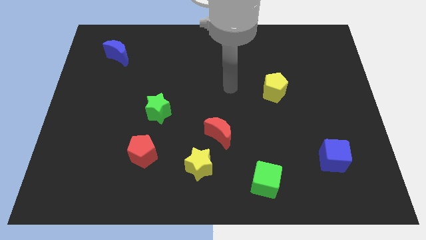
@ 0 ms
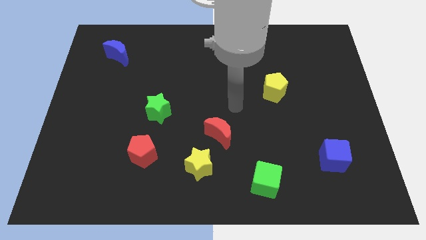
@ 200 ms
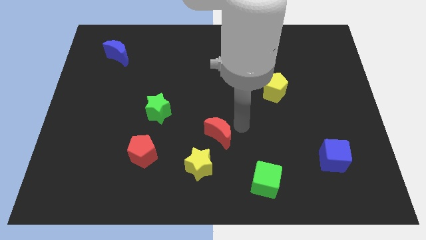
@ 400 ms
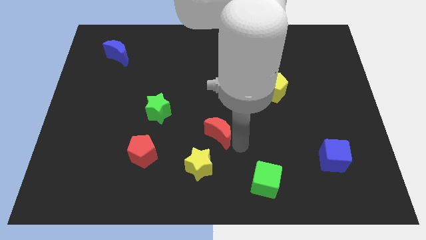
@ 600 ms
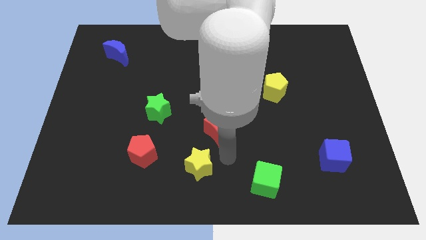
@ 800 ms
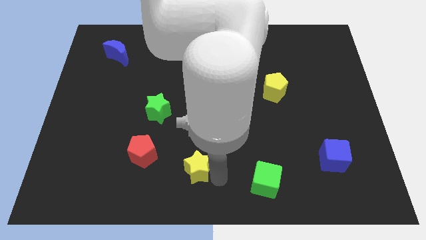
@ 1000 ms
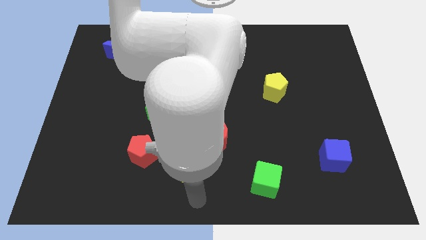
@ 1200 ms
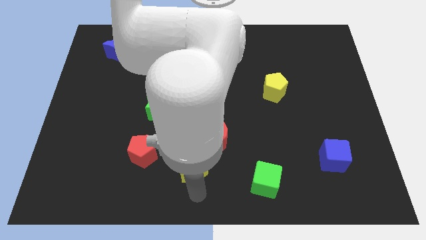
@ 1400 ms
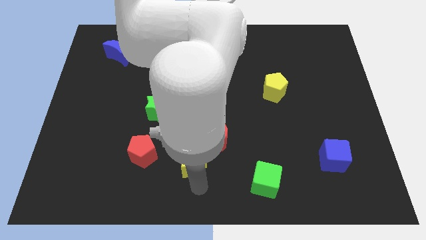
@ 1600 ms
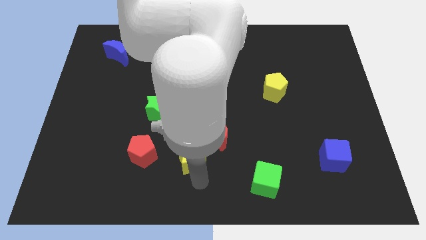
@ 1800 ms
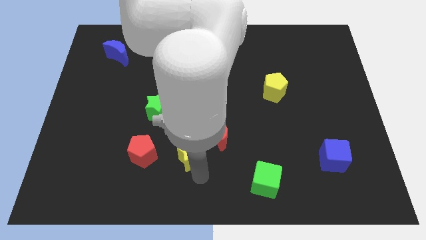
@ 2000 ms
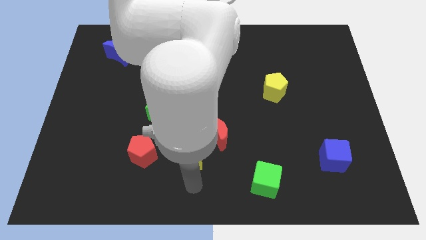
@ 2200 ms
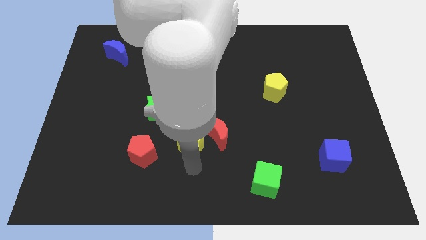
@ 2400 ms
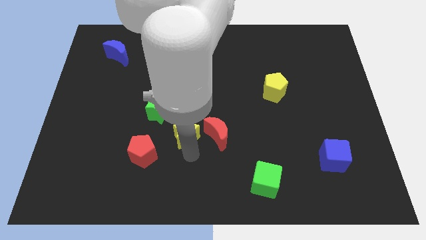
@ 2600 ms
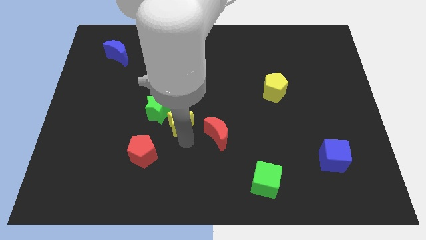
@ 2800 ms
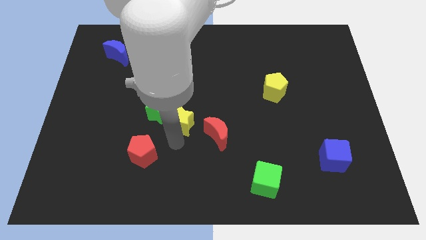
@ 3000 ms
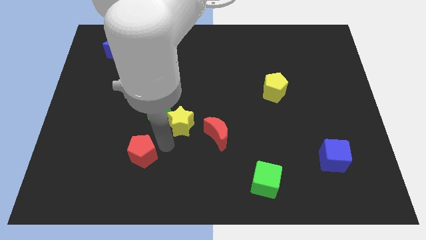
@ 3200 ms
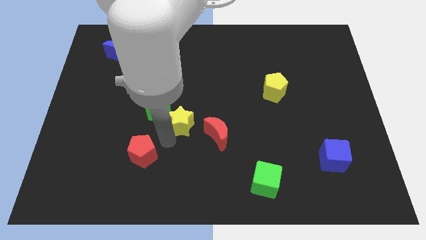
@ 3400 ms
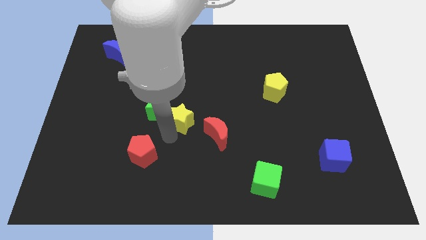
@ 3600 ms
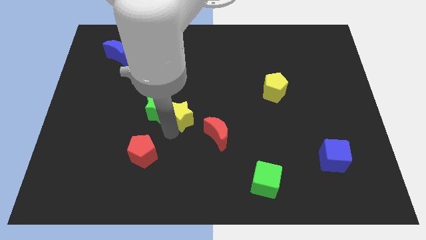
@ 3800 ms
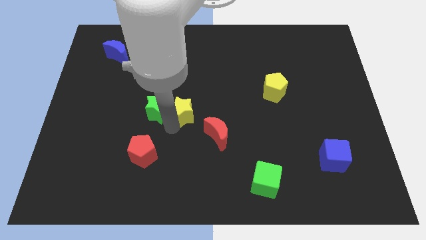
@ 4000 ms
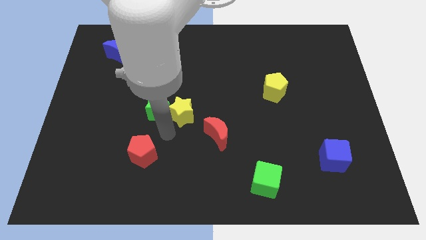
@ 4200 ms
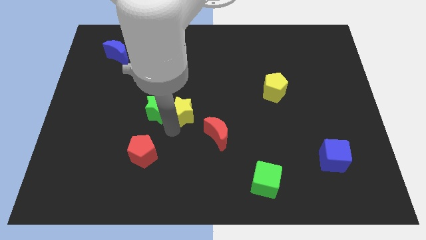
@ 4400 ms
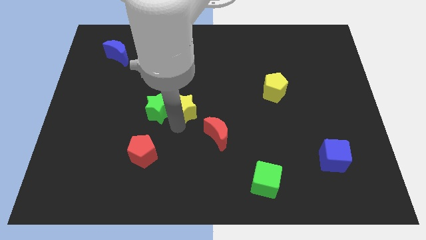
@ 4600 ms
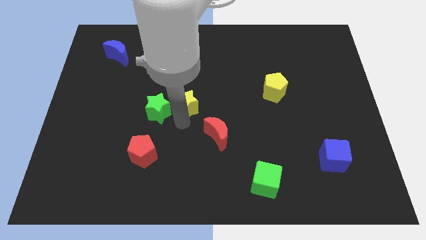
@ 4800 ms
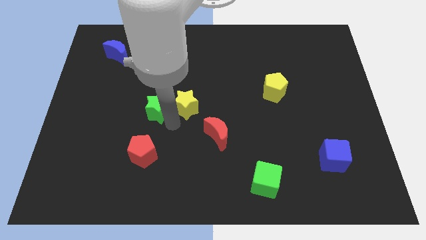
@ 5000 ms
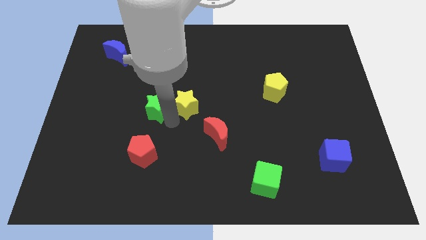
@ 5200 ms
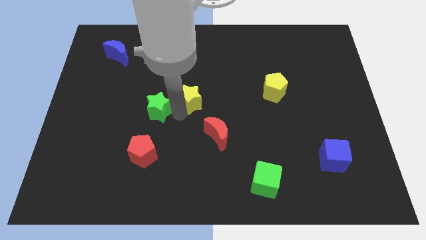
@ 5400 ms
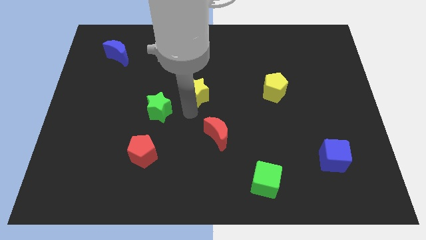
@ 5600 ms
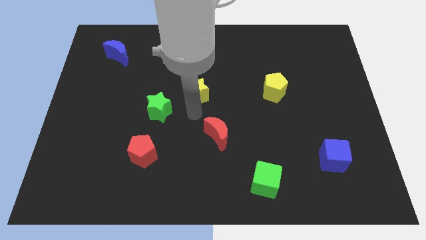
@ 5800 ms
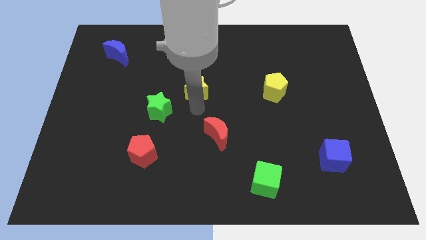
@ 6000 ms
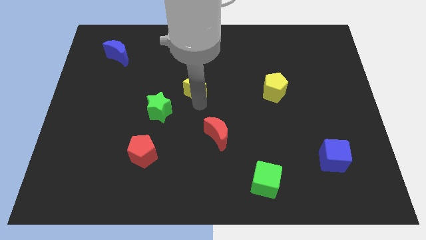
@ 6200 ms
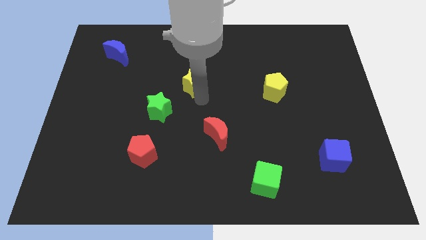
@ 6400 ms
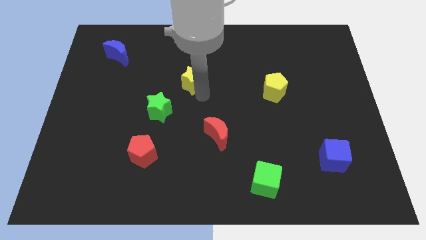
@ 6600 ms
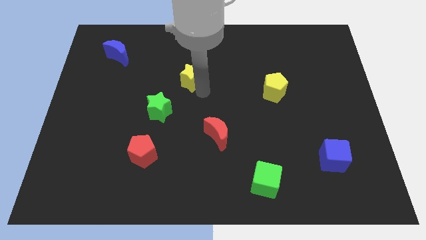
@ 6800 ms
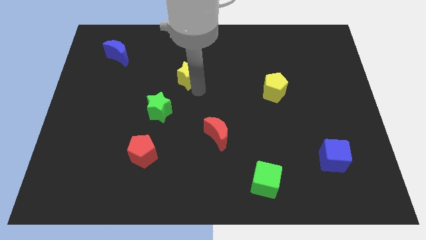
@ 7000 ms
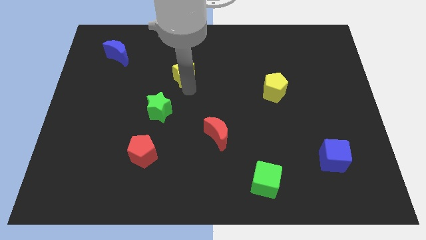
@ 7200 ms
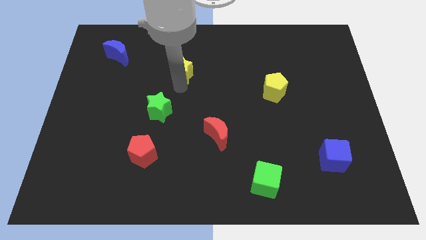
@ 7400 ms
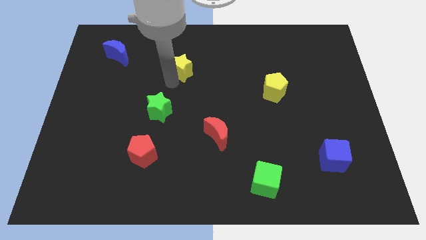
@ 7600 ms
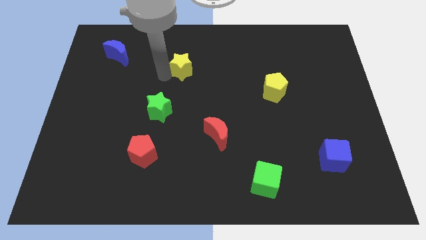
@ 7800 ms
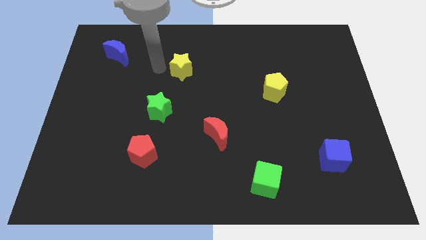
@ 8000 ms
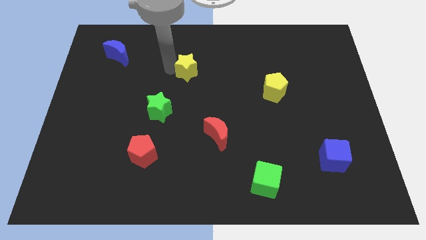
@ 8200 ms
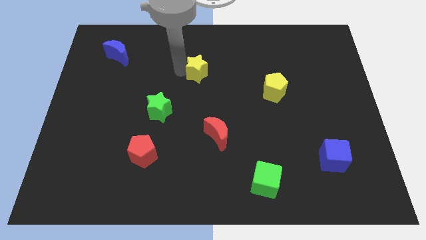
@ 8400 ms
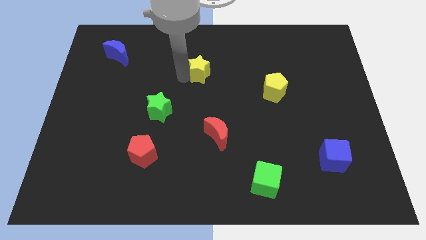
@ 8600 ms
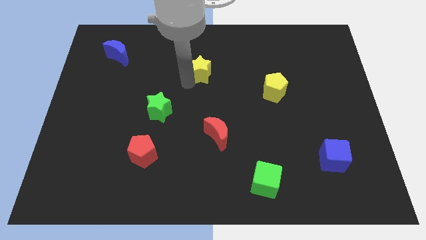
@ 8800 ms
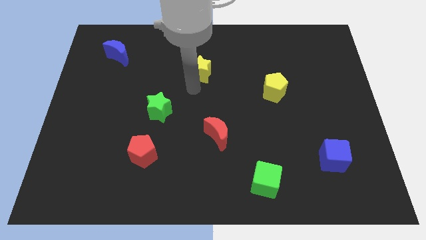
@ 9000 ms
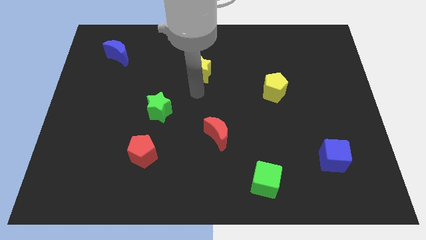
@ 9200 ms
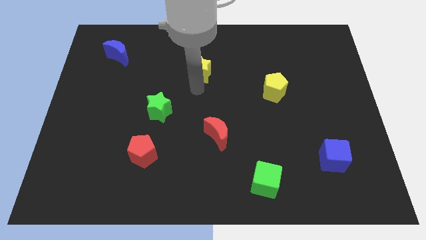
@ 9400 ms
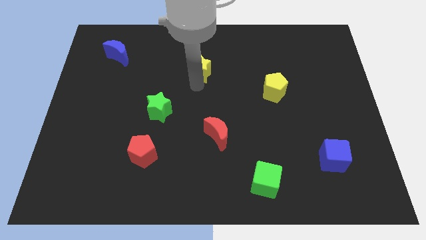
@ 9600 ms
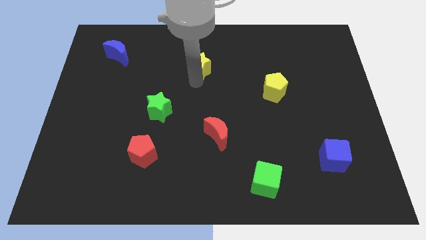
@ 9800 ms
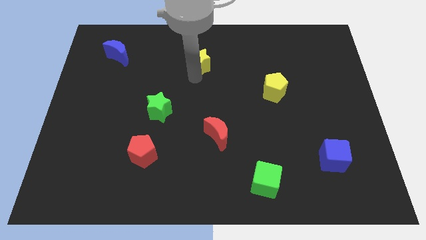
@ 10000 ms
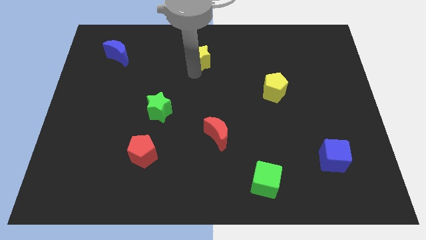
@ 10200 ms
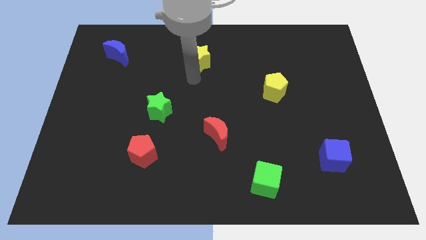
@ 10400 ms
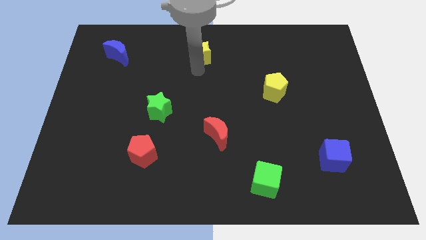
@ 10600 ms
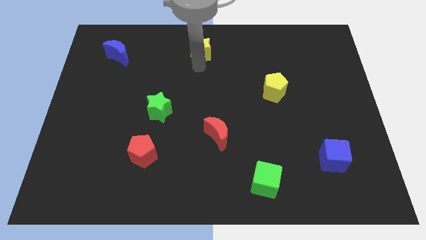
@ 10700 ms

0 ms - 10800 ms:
move the yellow star to the top

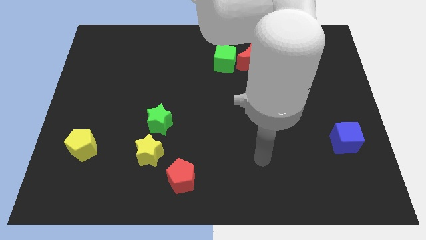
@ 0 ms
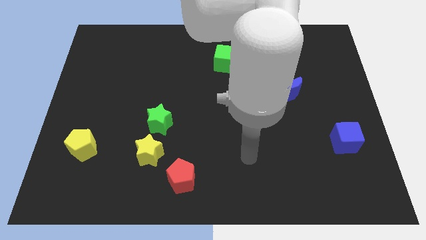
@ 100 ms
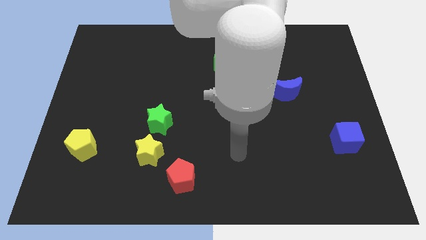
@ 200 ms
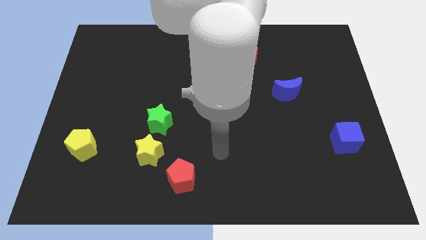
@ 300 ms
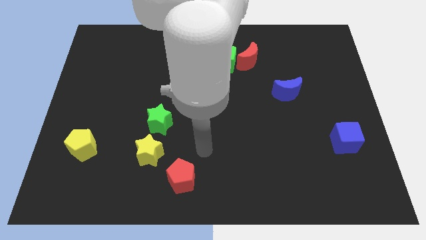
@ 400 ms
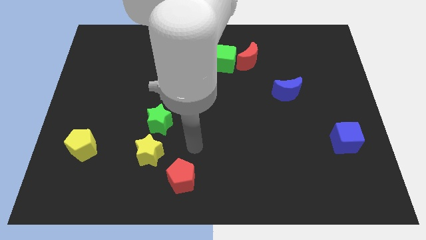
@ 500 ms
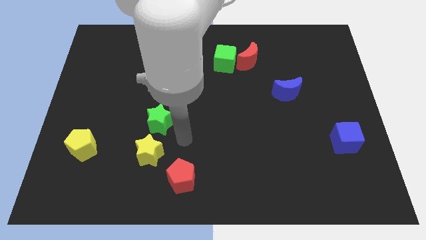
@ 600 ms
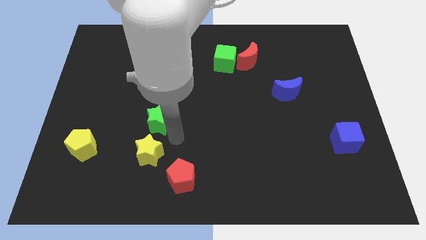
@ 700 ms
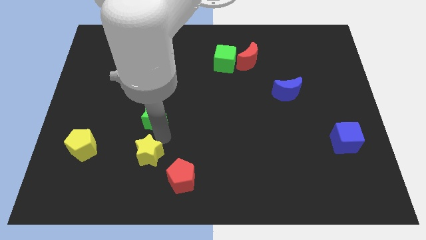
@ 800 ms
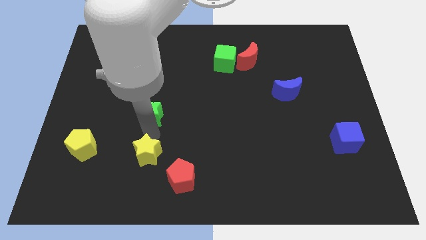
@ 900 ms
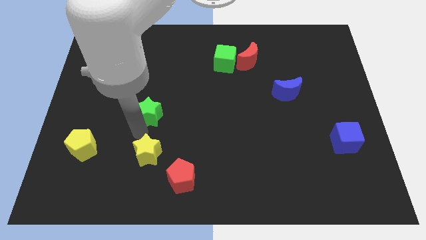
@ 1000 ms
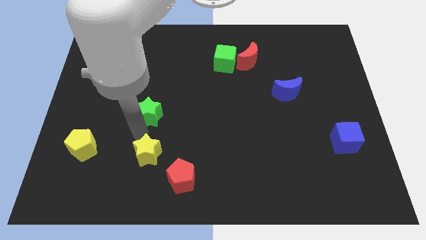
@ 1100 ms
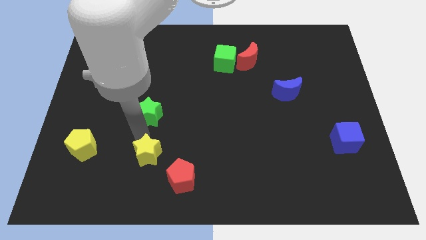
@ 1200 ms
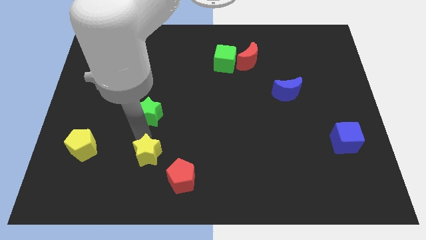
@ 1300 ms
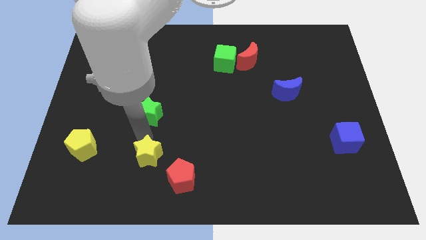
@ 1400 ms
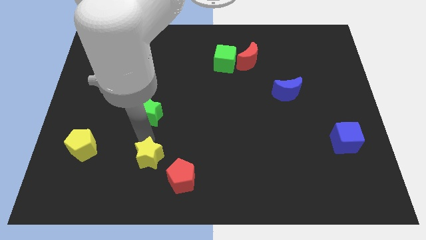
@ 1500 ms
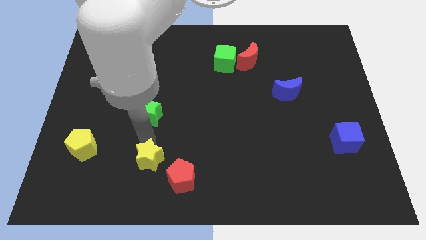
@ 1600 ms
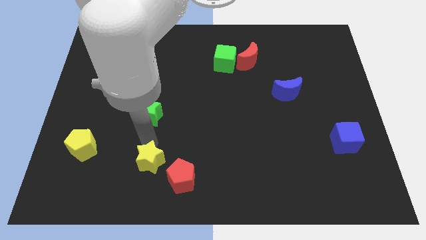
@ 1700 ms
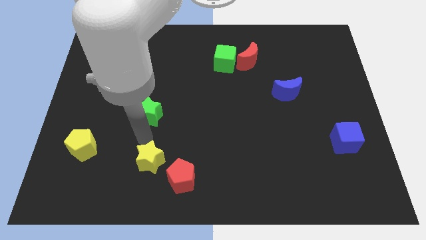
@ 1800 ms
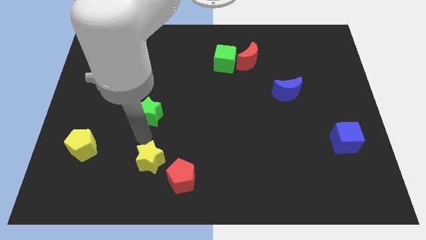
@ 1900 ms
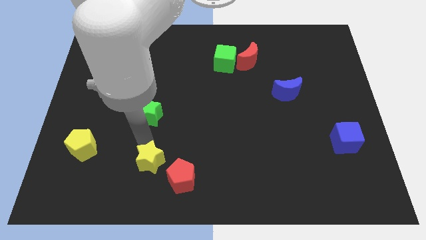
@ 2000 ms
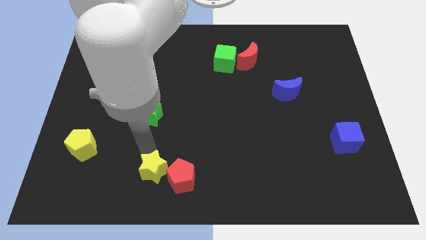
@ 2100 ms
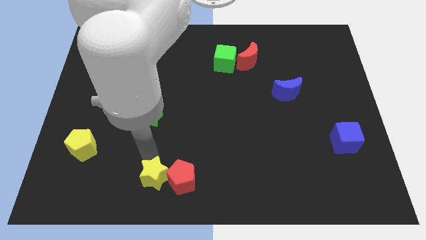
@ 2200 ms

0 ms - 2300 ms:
move the yellow star to the bottom
